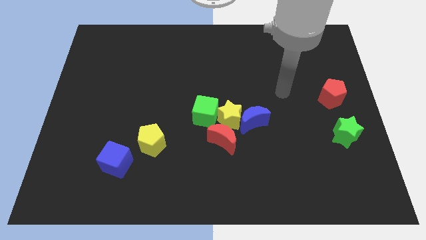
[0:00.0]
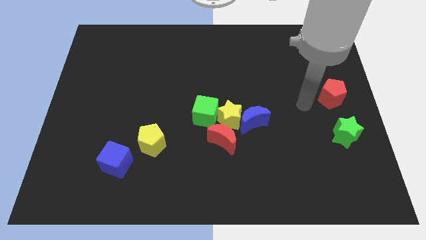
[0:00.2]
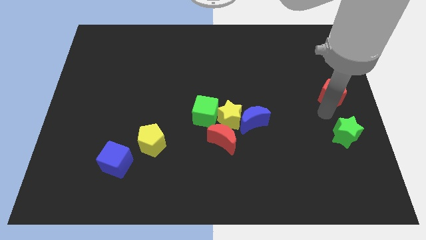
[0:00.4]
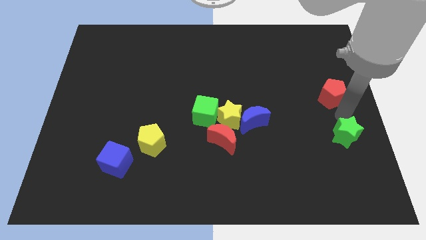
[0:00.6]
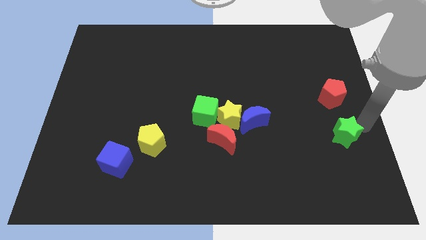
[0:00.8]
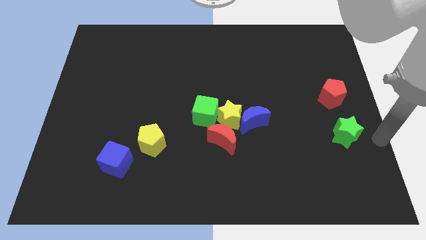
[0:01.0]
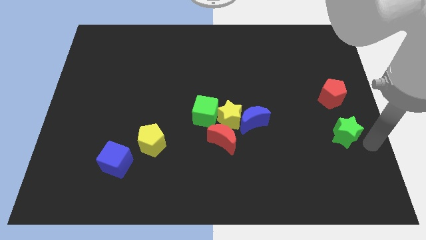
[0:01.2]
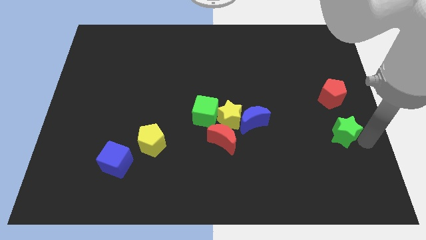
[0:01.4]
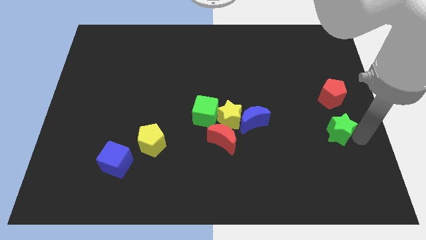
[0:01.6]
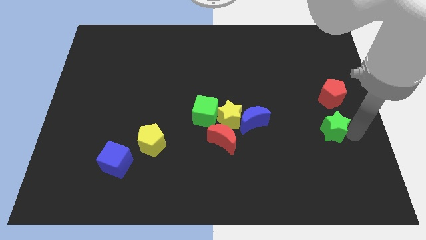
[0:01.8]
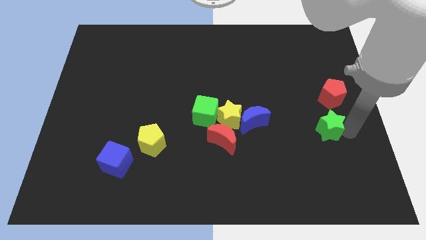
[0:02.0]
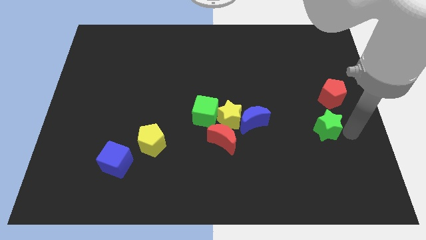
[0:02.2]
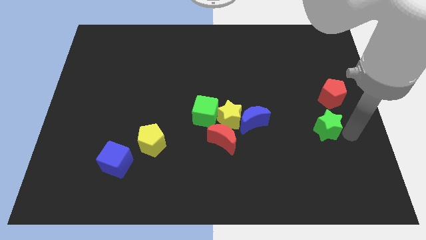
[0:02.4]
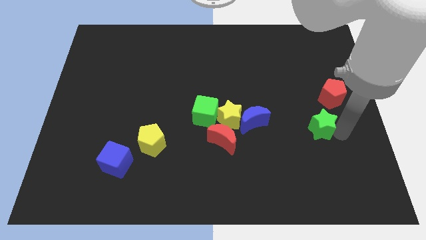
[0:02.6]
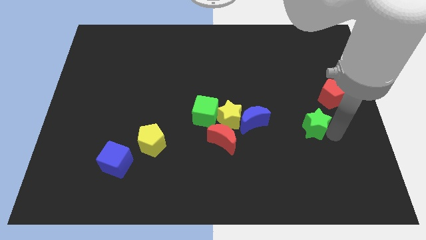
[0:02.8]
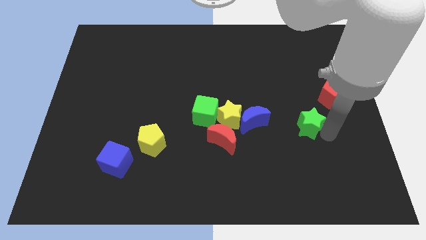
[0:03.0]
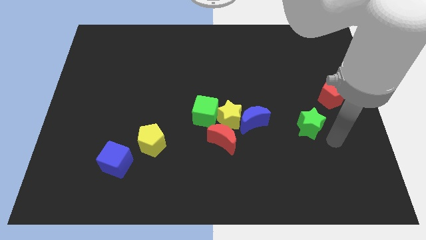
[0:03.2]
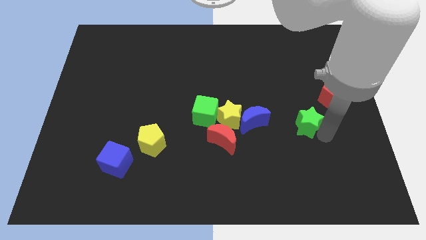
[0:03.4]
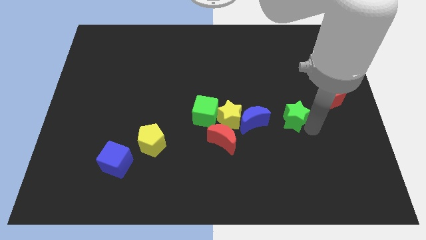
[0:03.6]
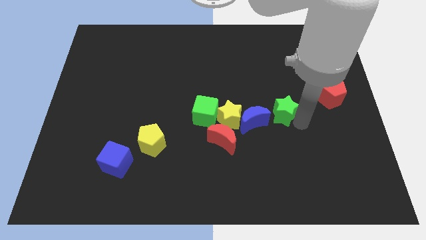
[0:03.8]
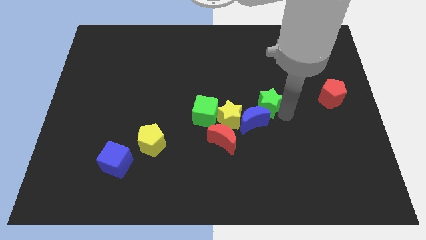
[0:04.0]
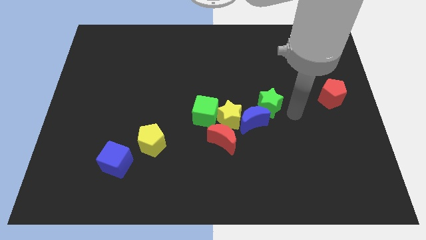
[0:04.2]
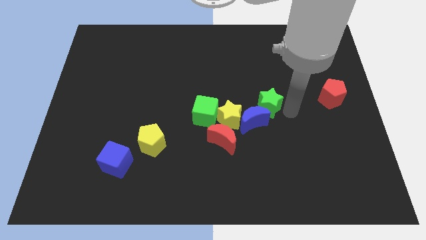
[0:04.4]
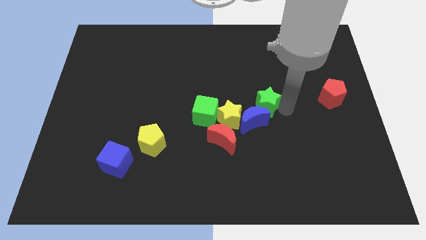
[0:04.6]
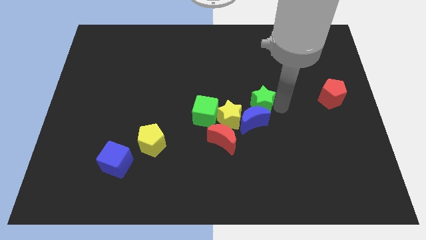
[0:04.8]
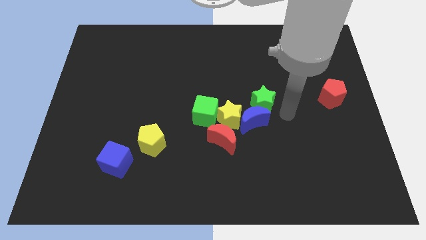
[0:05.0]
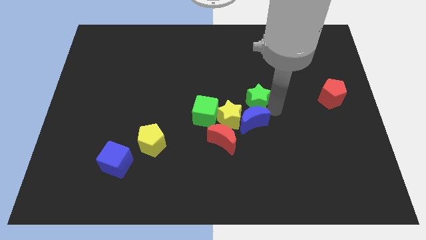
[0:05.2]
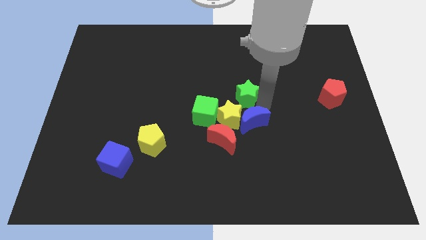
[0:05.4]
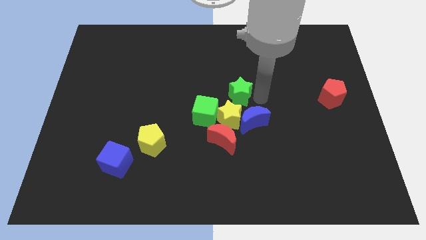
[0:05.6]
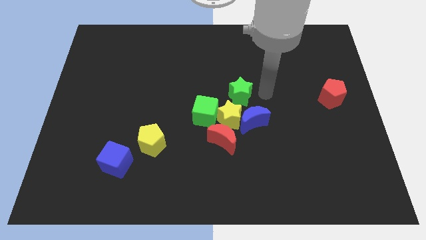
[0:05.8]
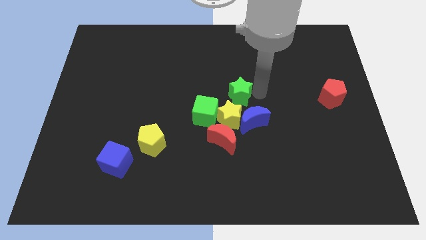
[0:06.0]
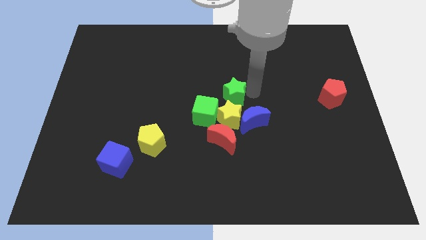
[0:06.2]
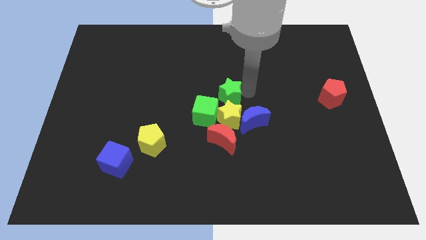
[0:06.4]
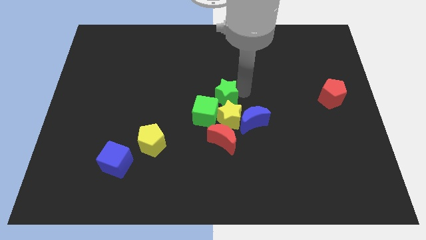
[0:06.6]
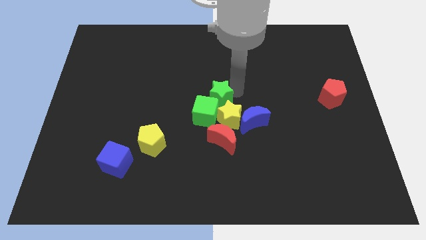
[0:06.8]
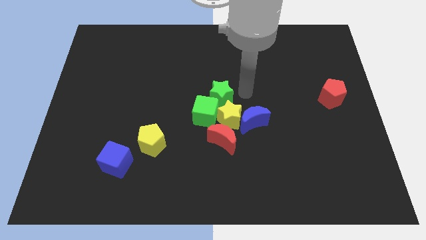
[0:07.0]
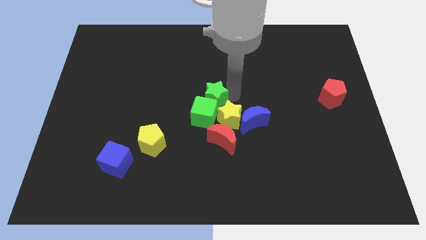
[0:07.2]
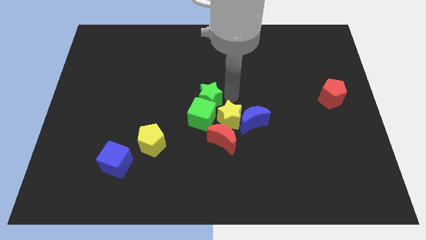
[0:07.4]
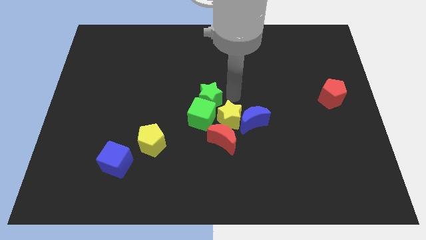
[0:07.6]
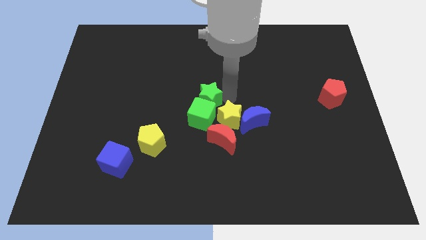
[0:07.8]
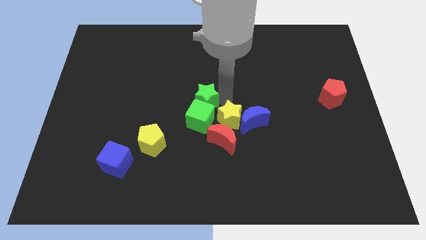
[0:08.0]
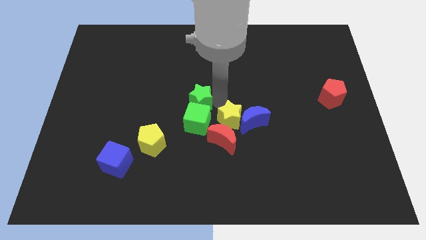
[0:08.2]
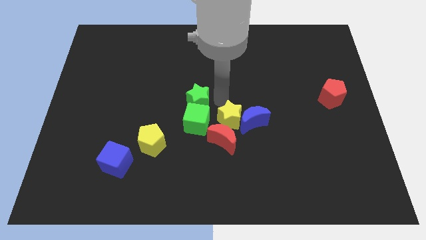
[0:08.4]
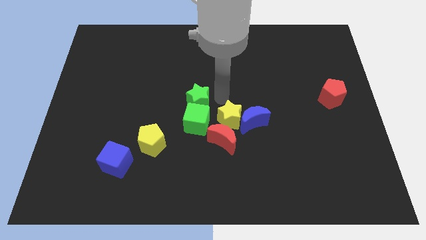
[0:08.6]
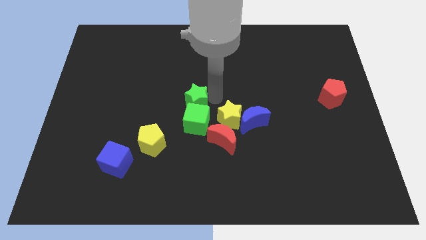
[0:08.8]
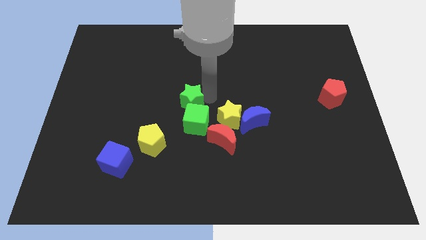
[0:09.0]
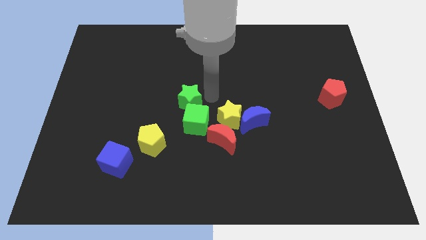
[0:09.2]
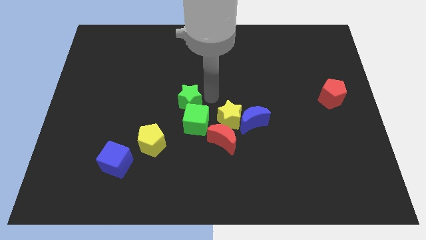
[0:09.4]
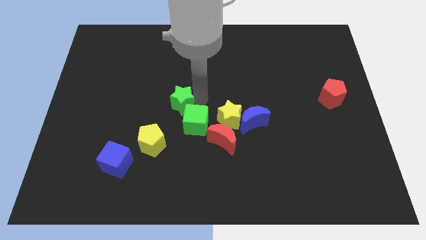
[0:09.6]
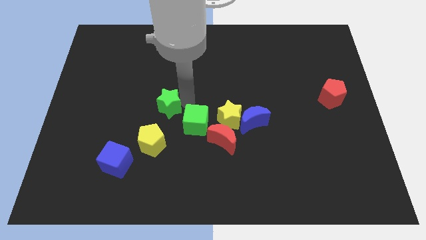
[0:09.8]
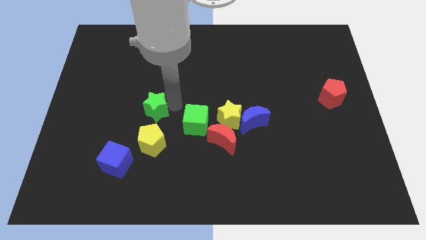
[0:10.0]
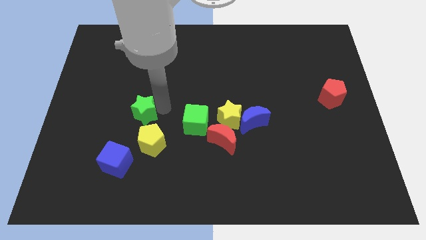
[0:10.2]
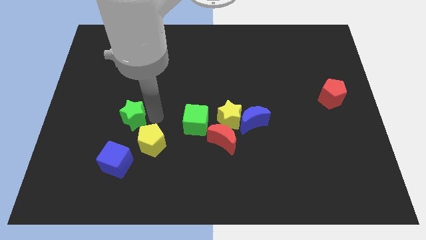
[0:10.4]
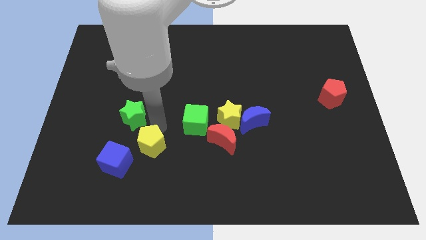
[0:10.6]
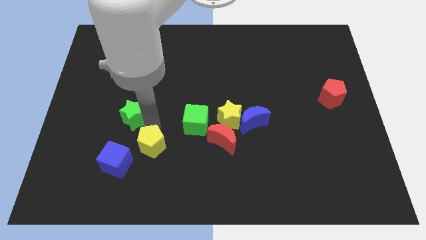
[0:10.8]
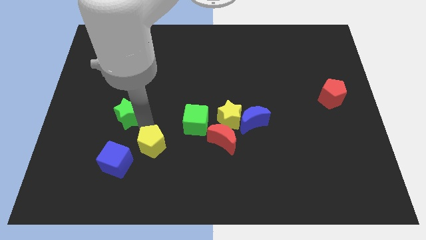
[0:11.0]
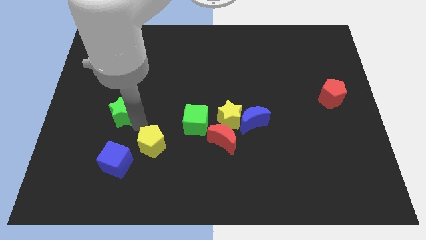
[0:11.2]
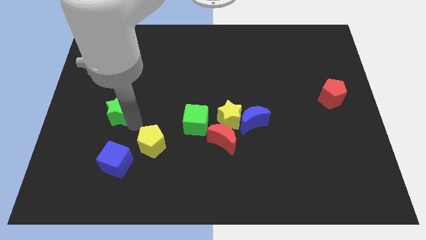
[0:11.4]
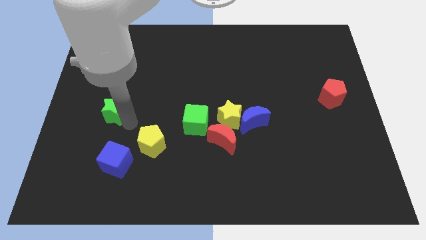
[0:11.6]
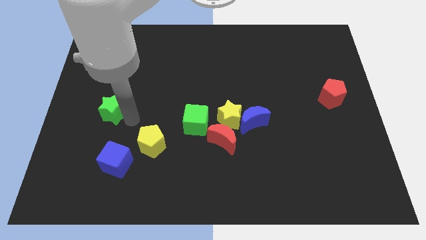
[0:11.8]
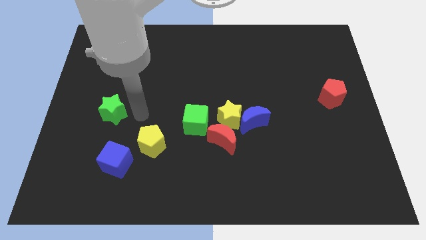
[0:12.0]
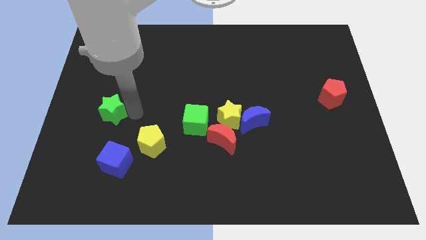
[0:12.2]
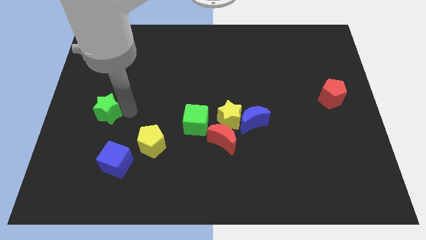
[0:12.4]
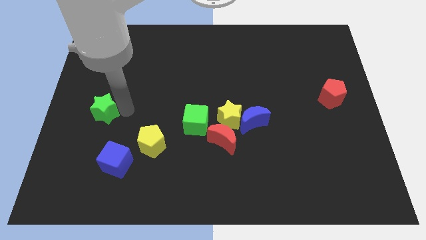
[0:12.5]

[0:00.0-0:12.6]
put the green star to the left side
